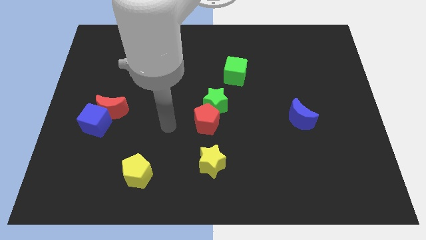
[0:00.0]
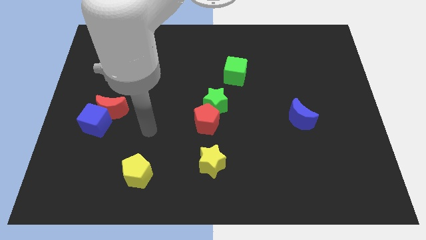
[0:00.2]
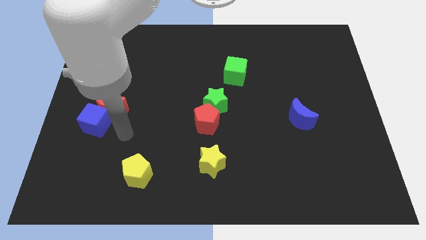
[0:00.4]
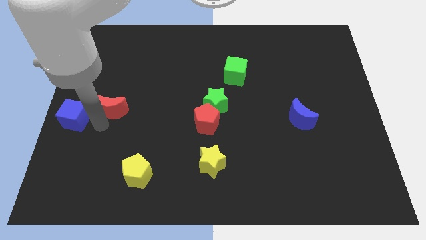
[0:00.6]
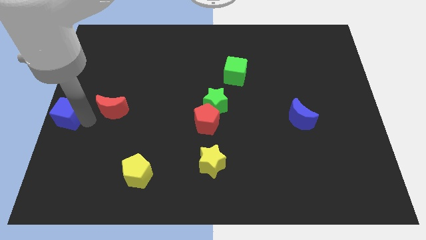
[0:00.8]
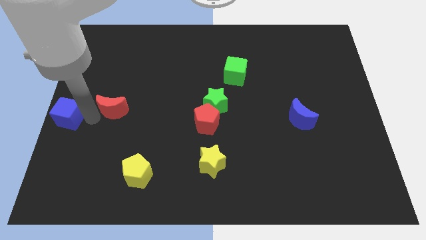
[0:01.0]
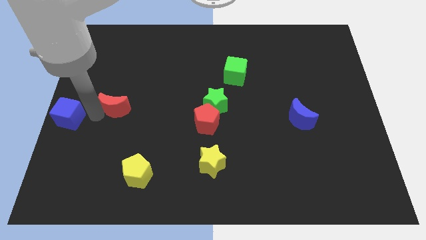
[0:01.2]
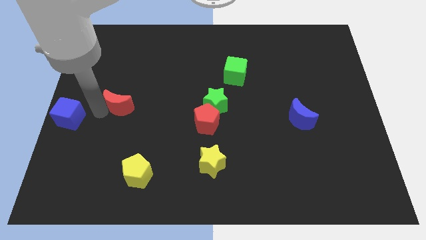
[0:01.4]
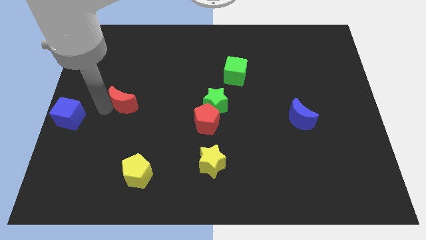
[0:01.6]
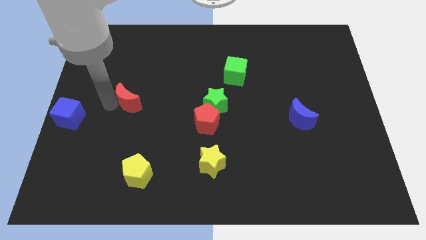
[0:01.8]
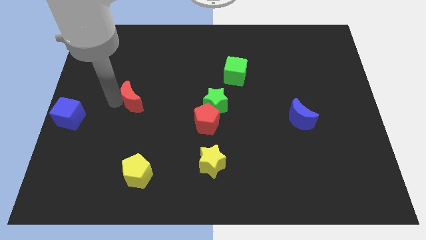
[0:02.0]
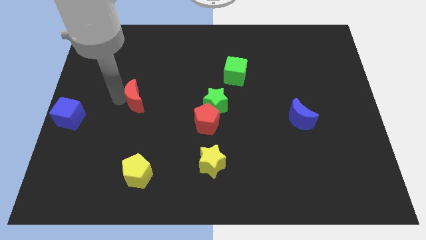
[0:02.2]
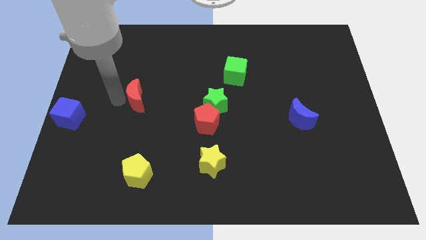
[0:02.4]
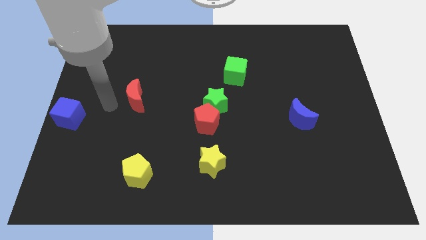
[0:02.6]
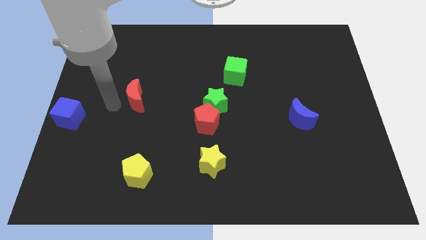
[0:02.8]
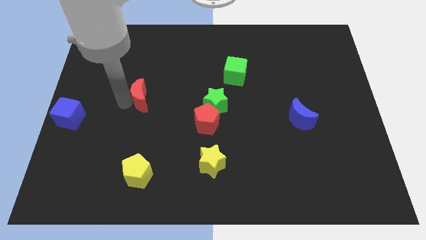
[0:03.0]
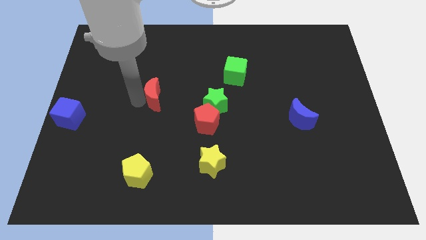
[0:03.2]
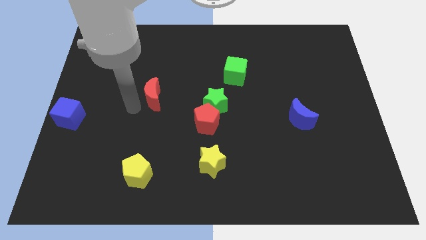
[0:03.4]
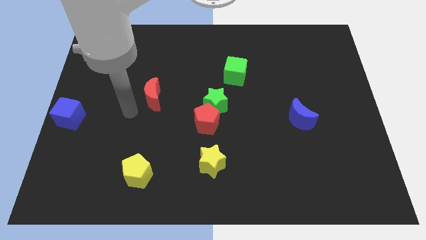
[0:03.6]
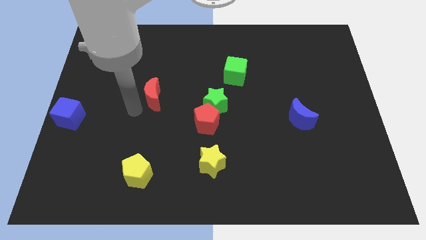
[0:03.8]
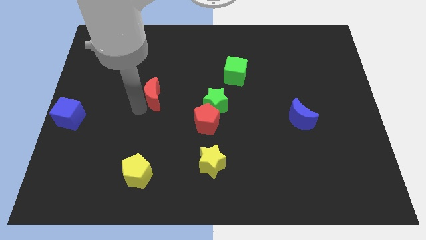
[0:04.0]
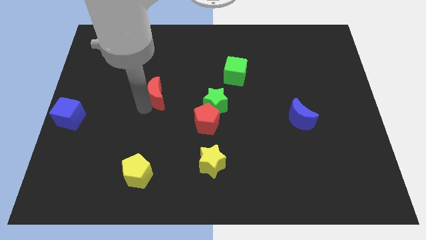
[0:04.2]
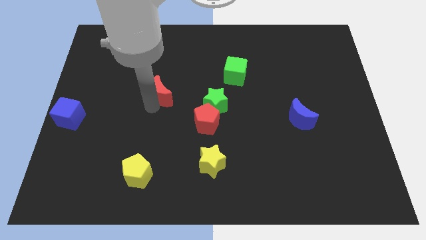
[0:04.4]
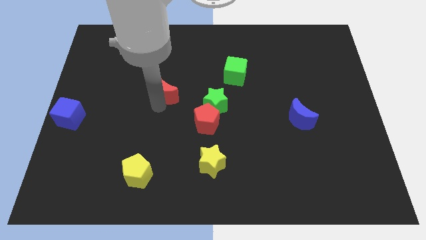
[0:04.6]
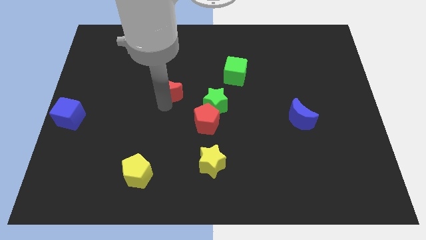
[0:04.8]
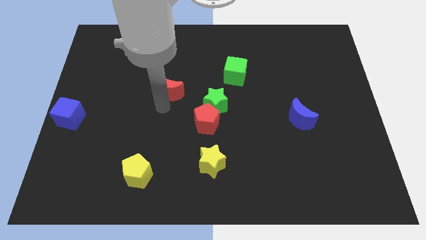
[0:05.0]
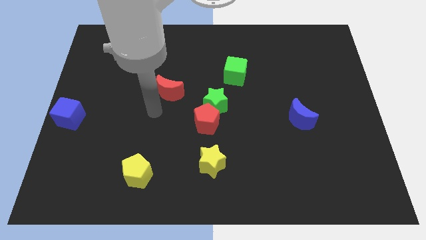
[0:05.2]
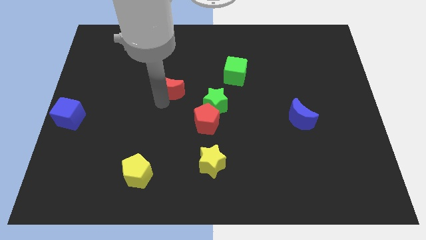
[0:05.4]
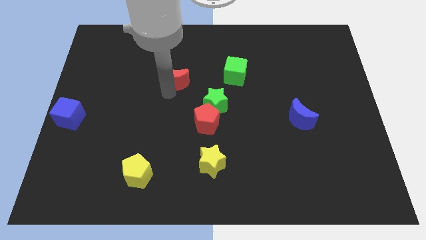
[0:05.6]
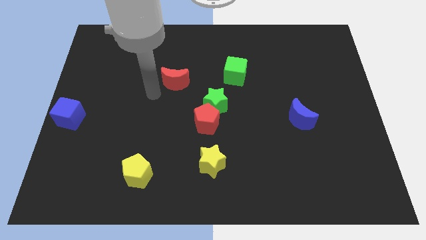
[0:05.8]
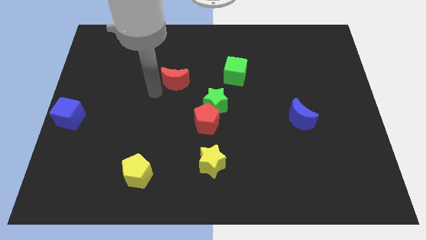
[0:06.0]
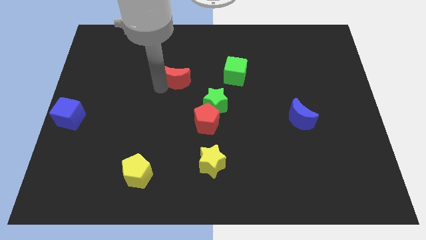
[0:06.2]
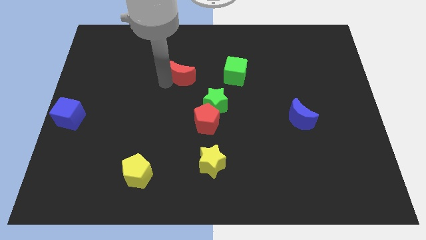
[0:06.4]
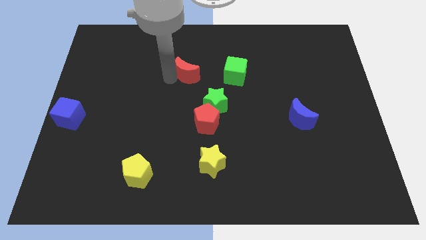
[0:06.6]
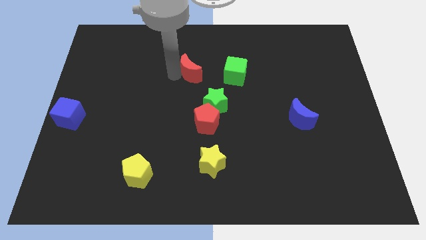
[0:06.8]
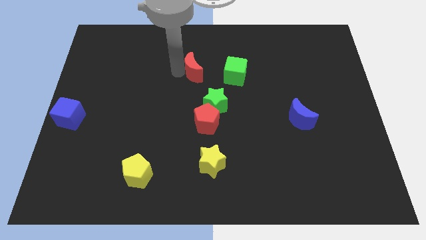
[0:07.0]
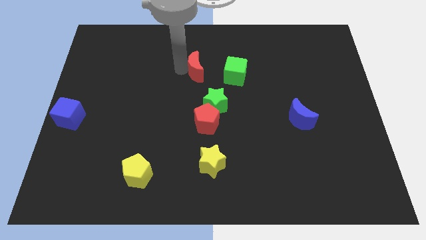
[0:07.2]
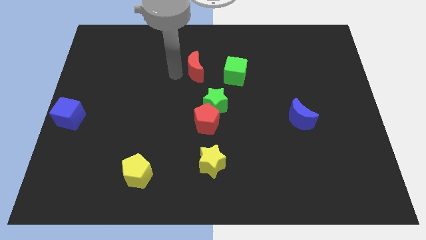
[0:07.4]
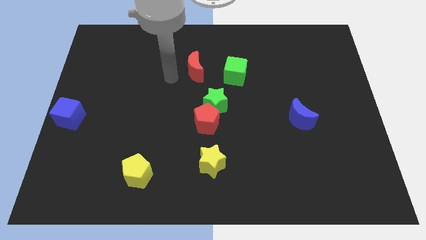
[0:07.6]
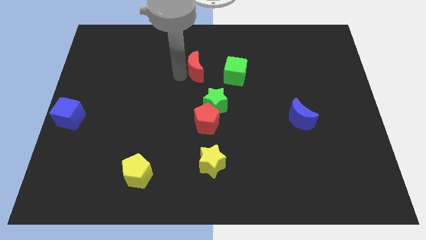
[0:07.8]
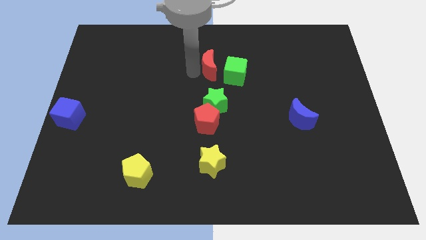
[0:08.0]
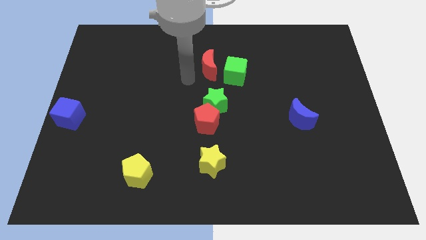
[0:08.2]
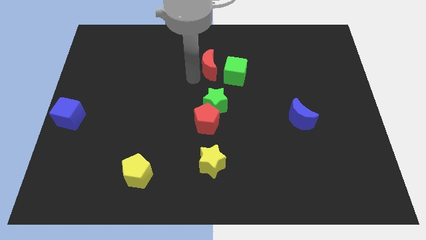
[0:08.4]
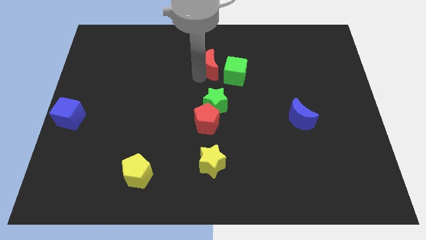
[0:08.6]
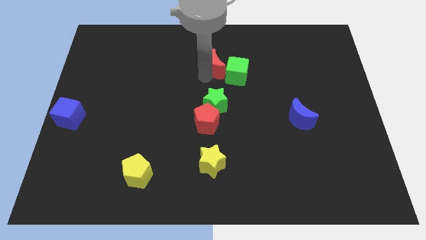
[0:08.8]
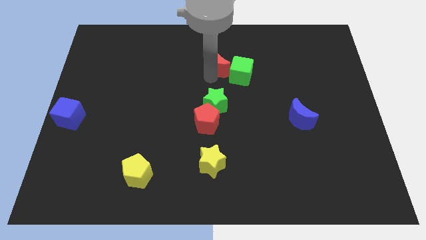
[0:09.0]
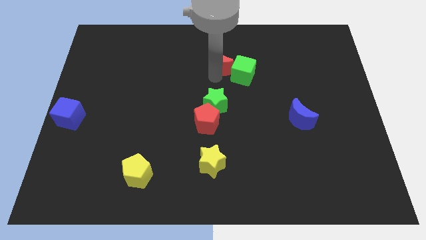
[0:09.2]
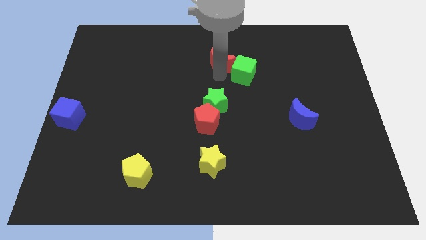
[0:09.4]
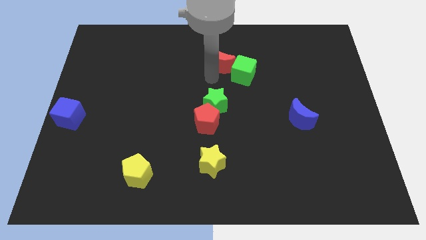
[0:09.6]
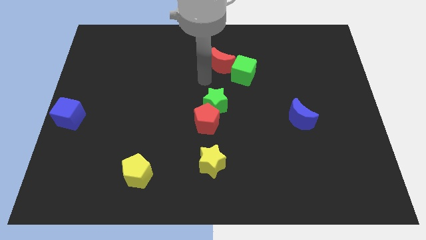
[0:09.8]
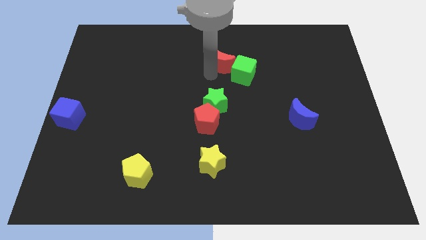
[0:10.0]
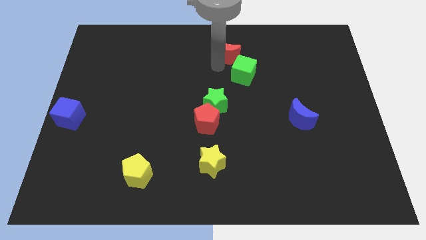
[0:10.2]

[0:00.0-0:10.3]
put the red moon to the top side
